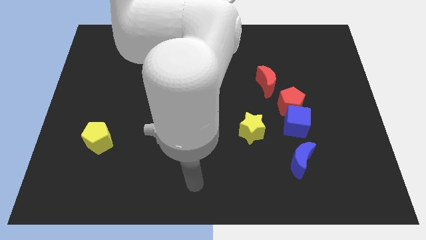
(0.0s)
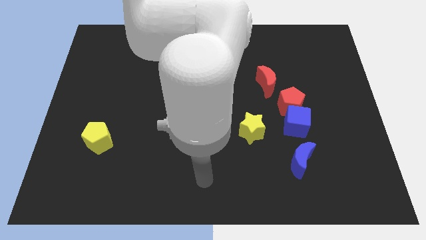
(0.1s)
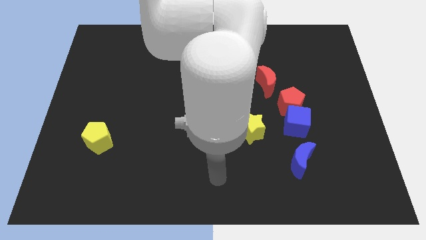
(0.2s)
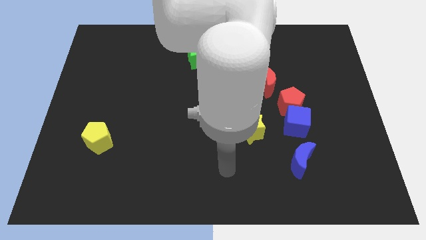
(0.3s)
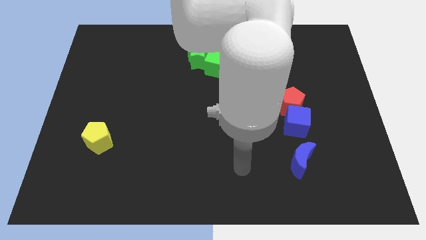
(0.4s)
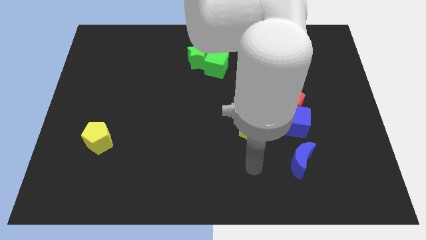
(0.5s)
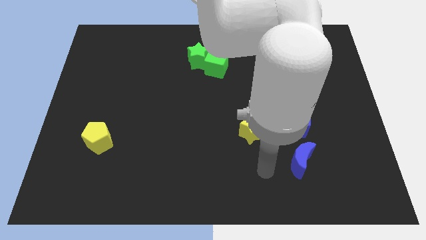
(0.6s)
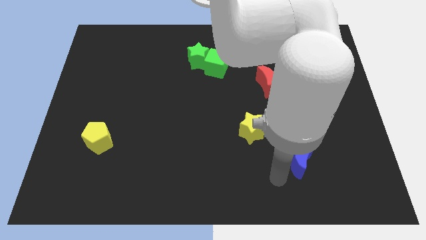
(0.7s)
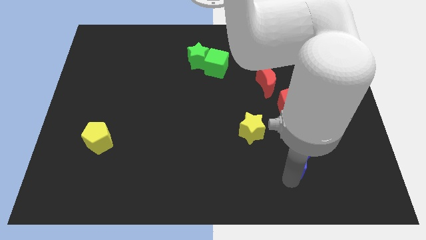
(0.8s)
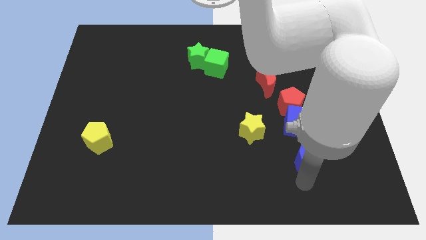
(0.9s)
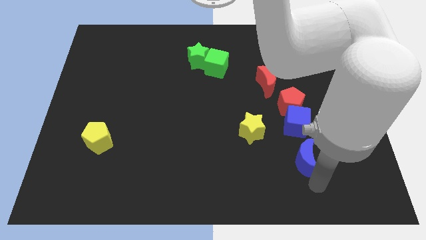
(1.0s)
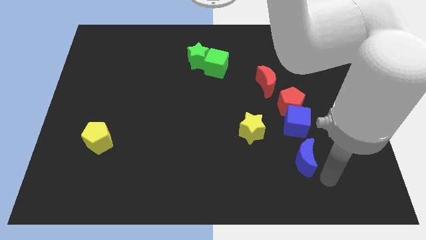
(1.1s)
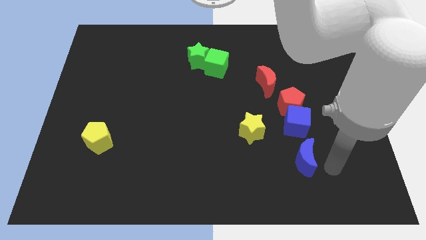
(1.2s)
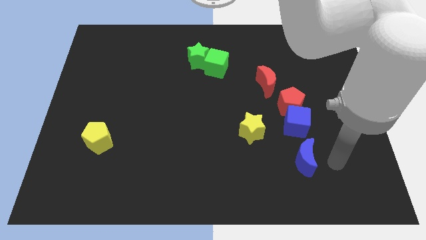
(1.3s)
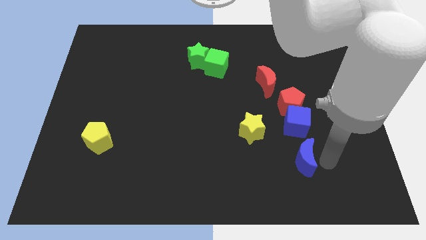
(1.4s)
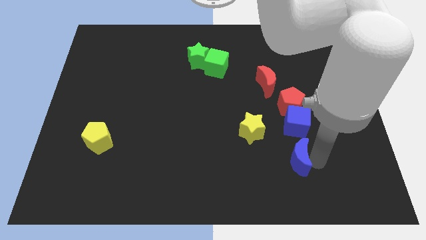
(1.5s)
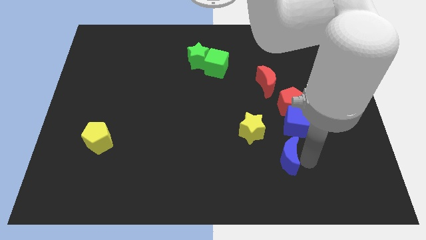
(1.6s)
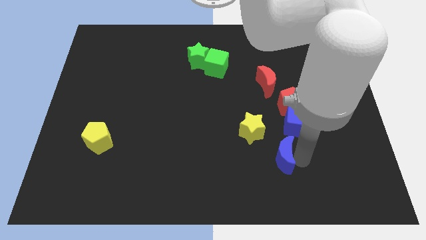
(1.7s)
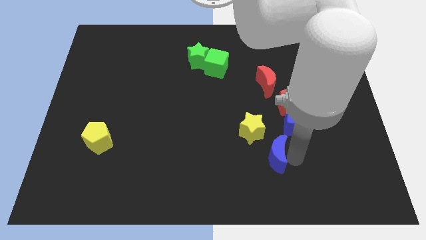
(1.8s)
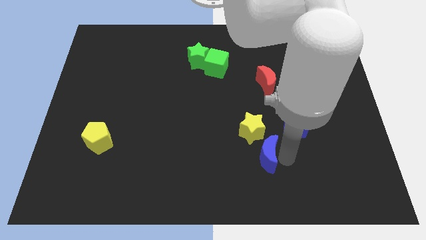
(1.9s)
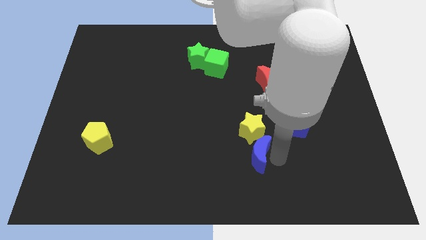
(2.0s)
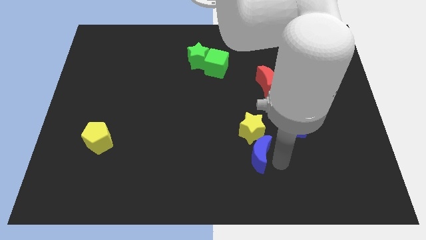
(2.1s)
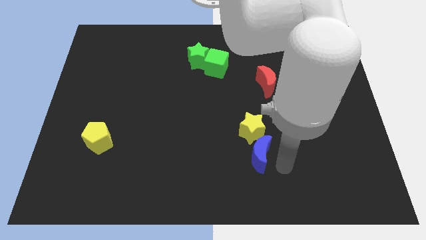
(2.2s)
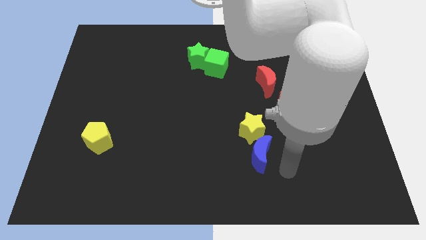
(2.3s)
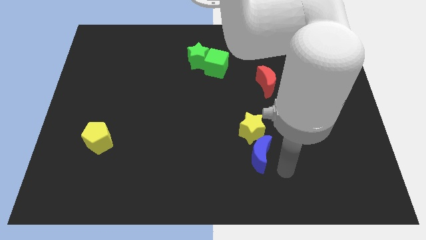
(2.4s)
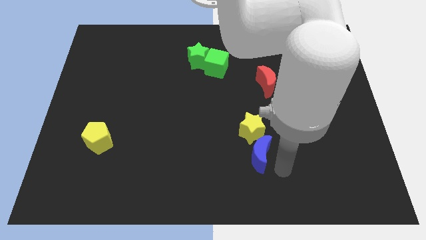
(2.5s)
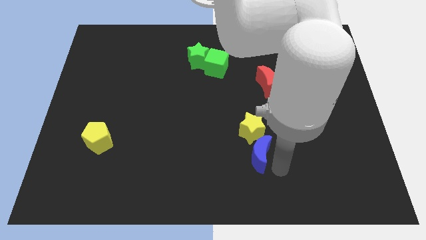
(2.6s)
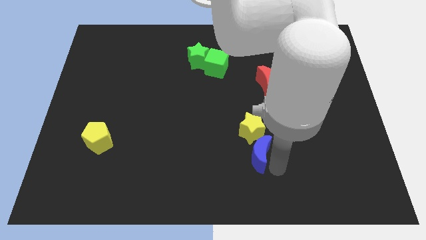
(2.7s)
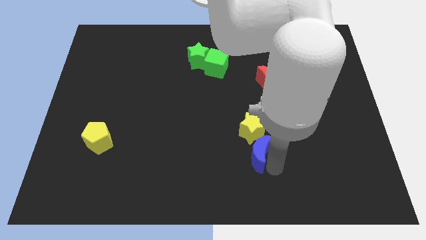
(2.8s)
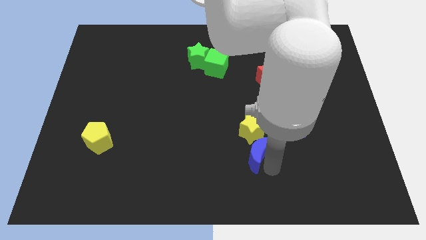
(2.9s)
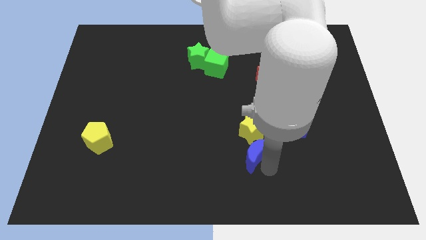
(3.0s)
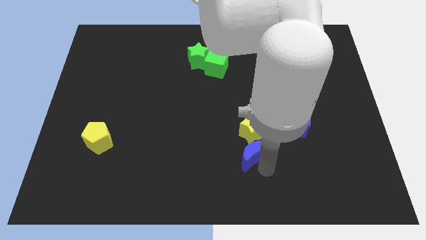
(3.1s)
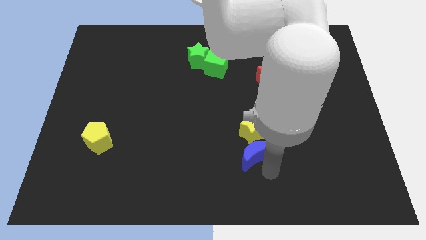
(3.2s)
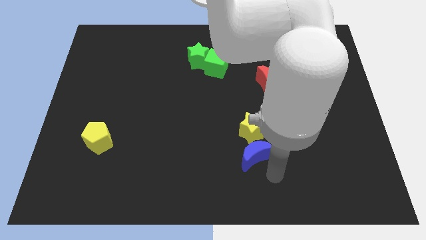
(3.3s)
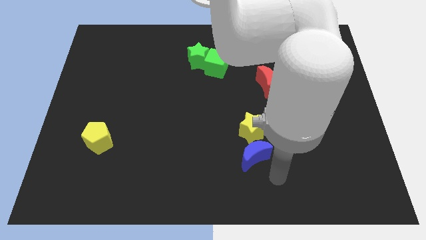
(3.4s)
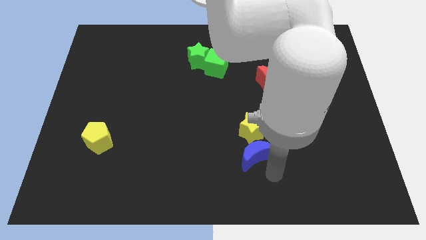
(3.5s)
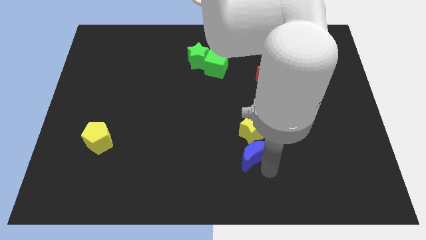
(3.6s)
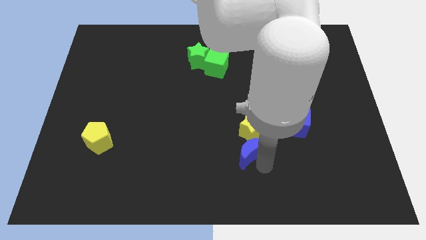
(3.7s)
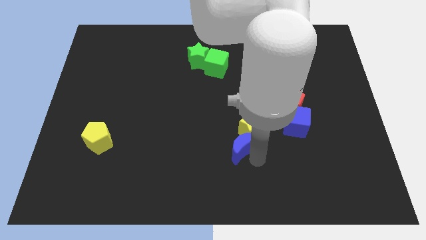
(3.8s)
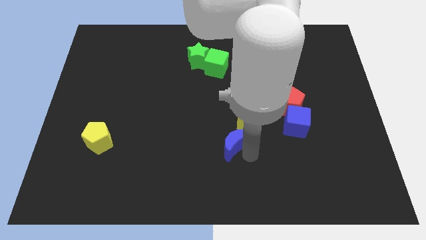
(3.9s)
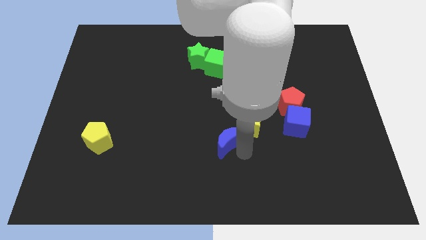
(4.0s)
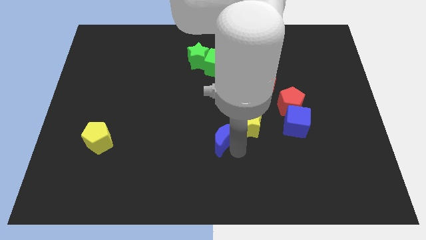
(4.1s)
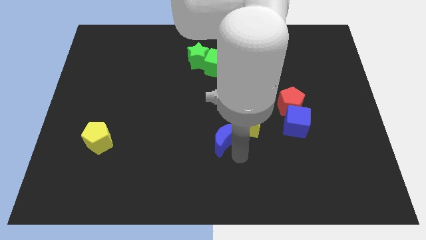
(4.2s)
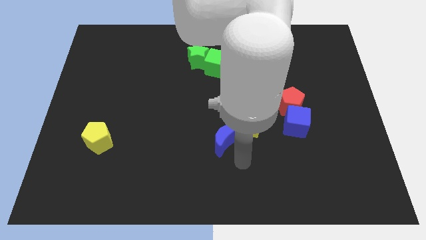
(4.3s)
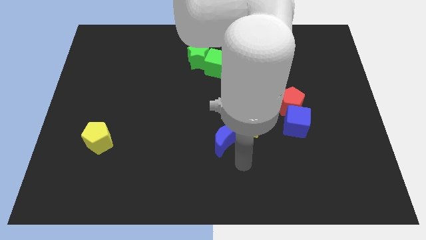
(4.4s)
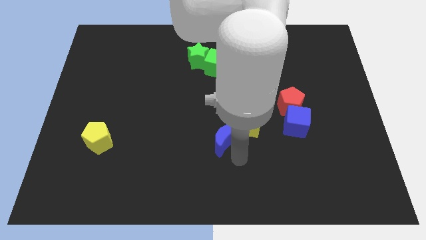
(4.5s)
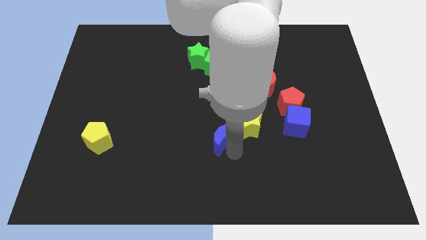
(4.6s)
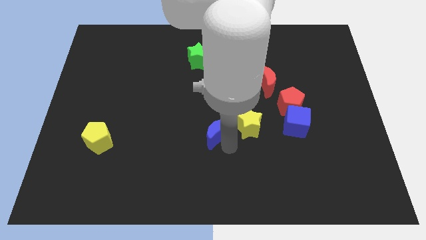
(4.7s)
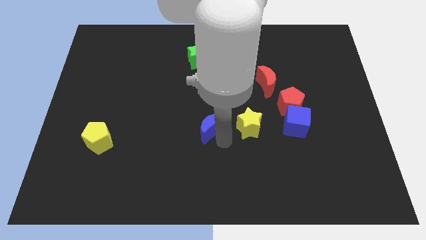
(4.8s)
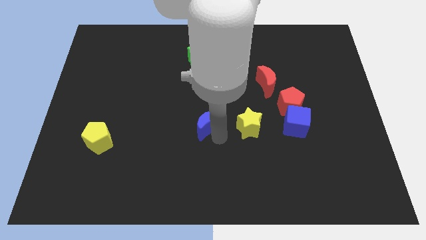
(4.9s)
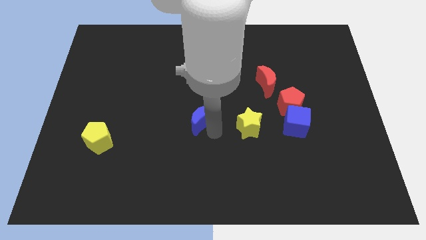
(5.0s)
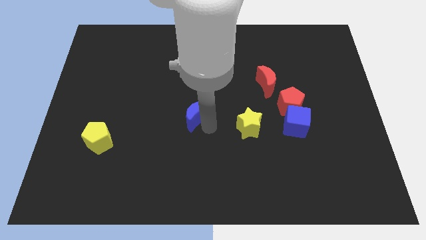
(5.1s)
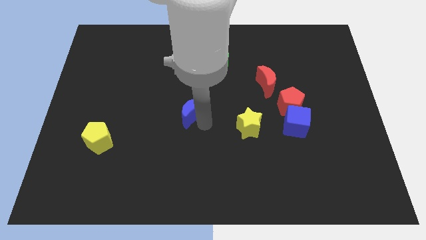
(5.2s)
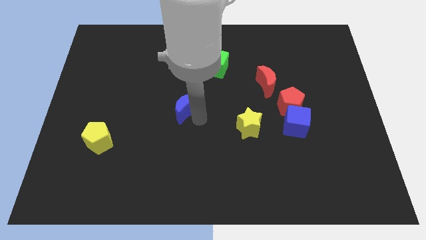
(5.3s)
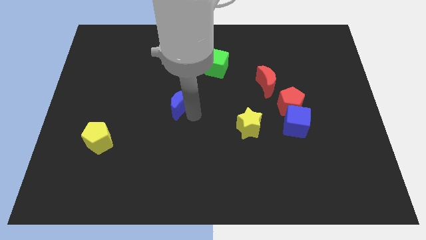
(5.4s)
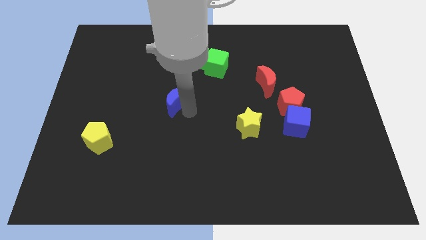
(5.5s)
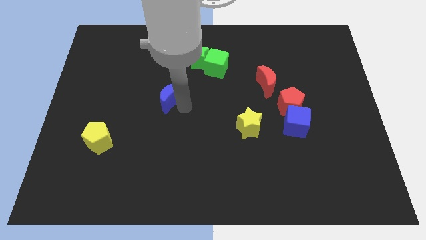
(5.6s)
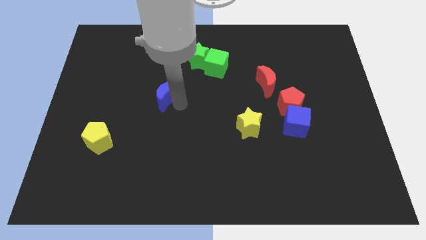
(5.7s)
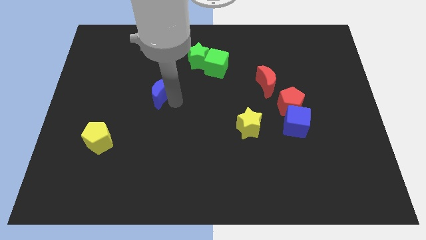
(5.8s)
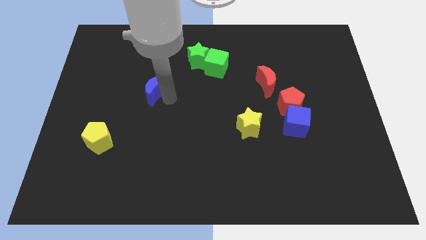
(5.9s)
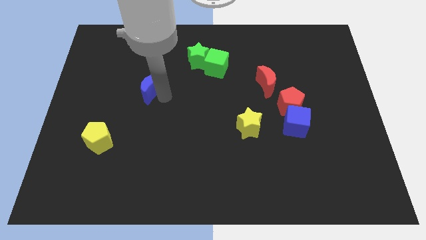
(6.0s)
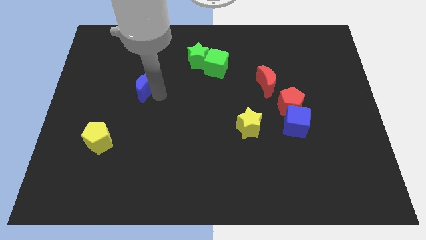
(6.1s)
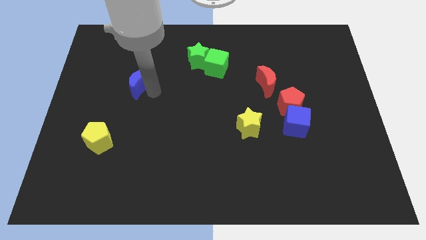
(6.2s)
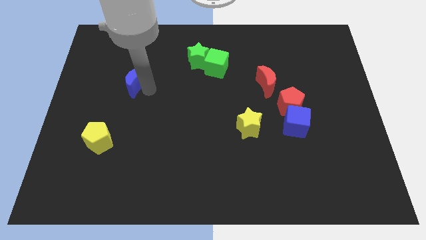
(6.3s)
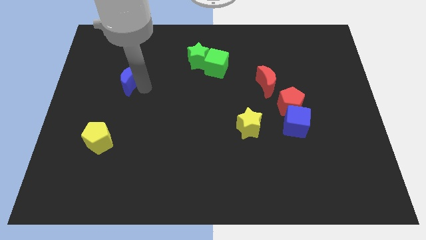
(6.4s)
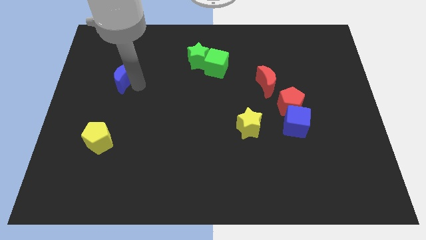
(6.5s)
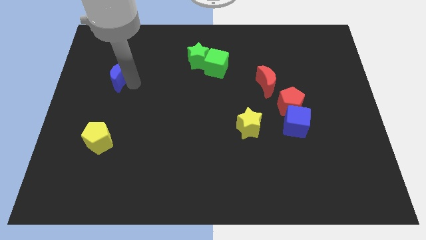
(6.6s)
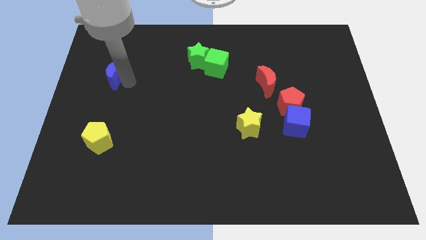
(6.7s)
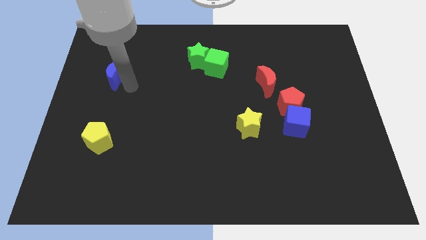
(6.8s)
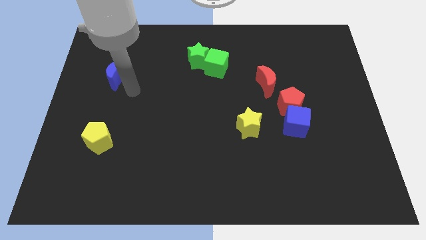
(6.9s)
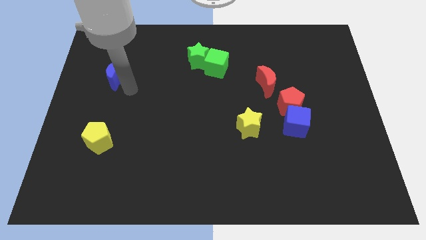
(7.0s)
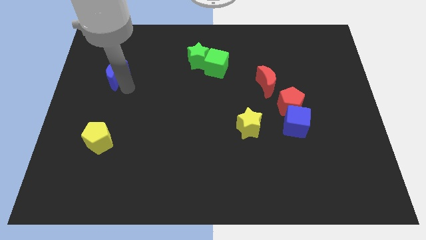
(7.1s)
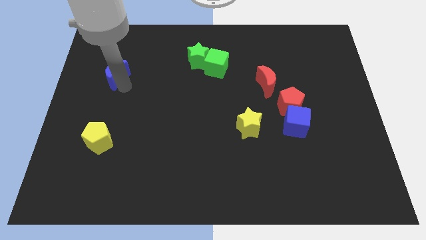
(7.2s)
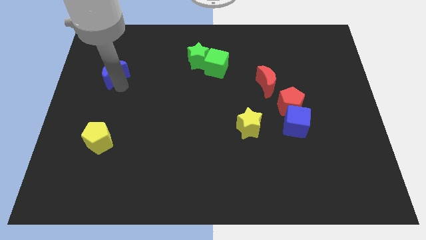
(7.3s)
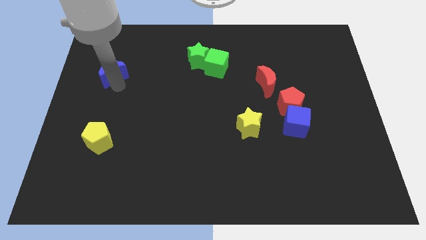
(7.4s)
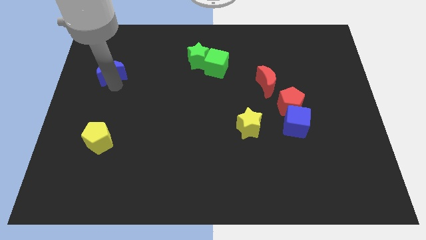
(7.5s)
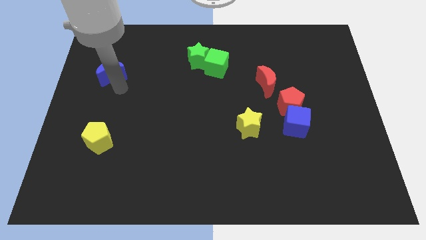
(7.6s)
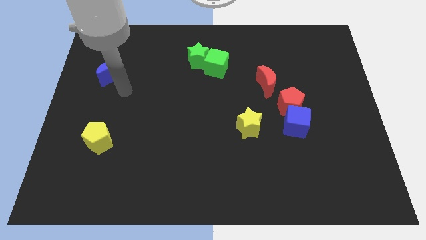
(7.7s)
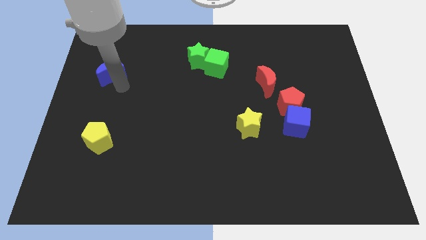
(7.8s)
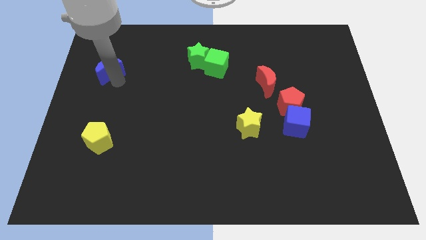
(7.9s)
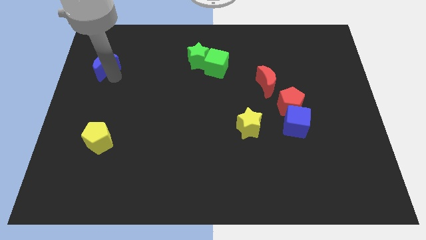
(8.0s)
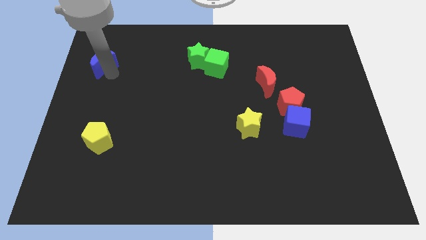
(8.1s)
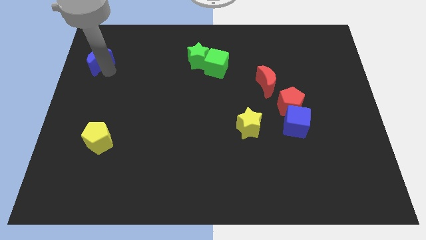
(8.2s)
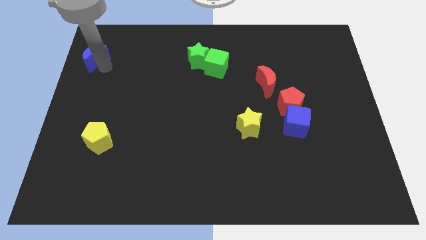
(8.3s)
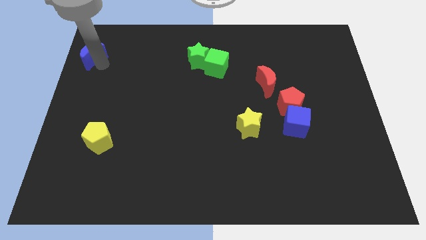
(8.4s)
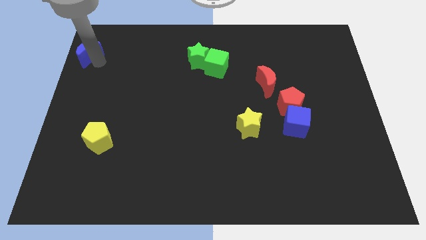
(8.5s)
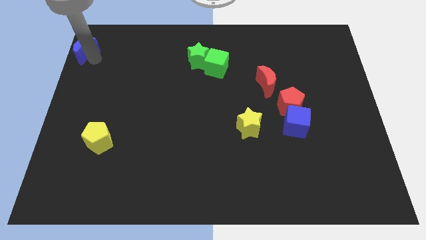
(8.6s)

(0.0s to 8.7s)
put the blue moon to the upper left corner
